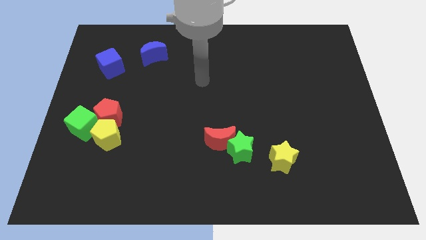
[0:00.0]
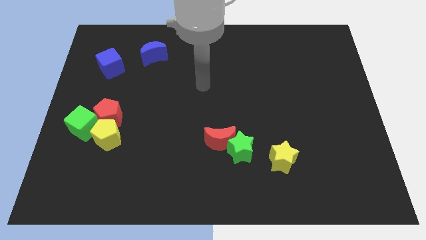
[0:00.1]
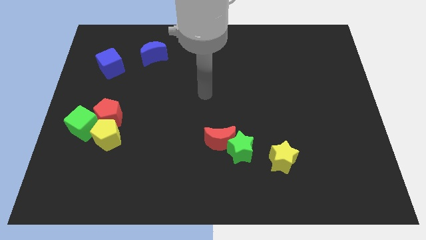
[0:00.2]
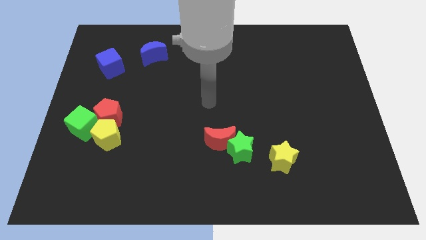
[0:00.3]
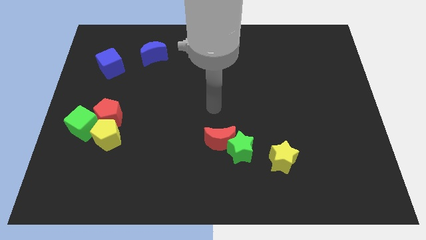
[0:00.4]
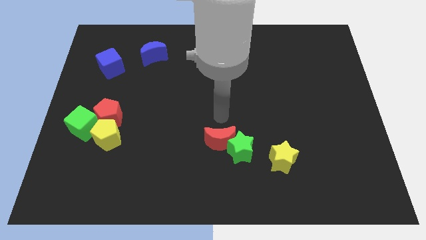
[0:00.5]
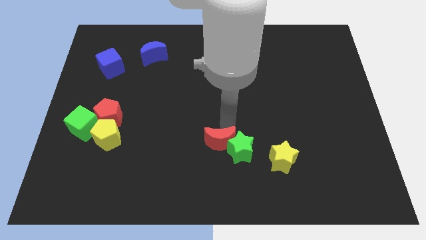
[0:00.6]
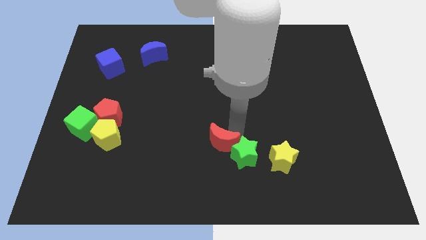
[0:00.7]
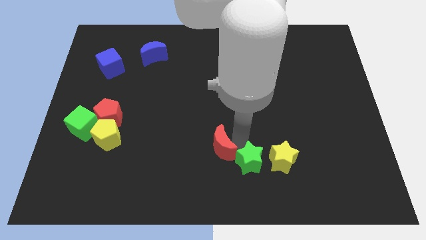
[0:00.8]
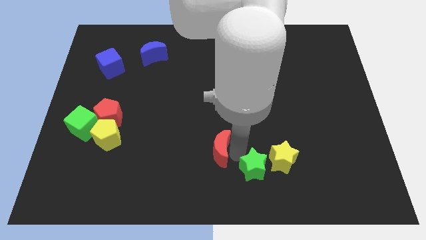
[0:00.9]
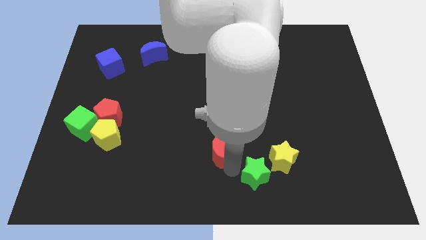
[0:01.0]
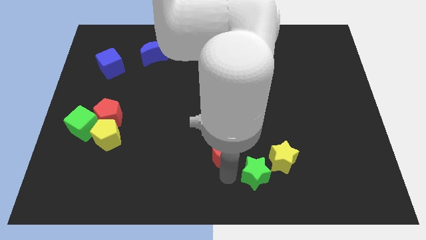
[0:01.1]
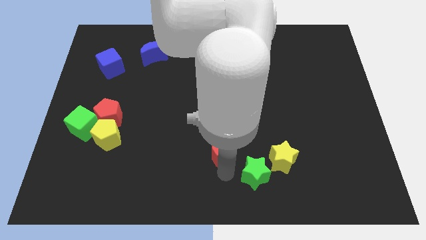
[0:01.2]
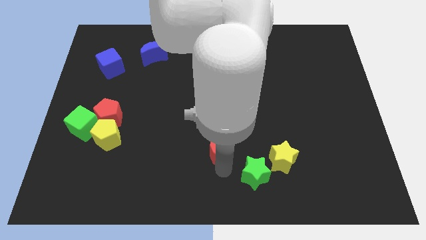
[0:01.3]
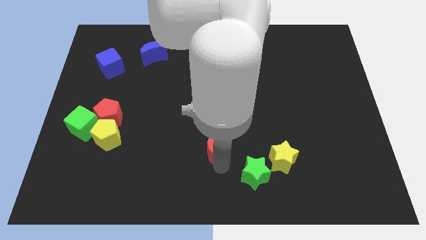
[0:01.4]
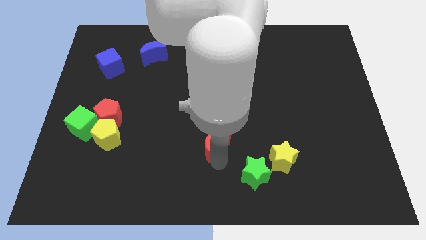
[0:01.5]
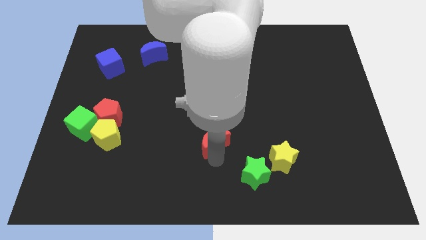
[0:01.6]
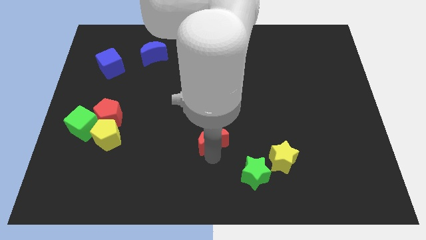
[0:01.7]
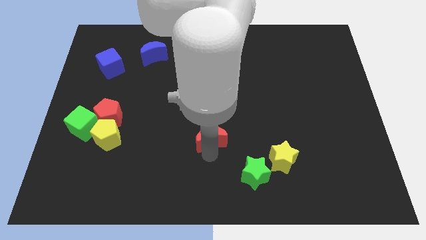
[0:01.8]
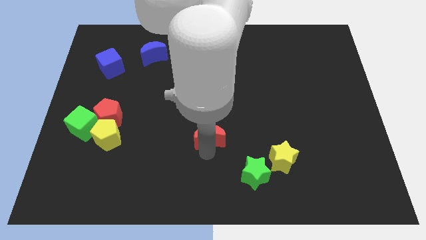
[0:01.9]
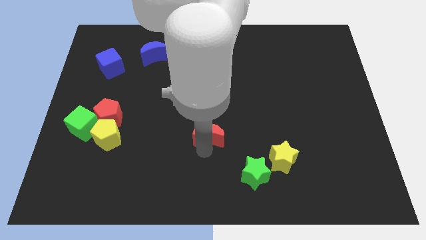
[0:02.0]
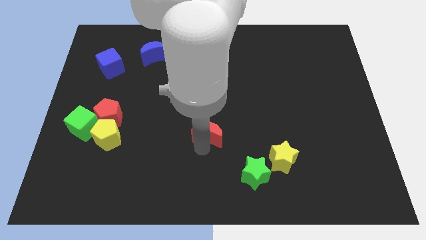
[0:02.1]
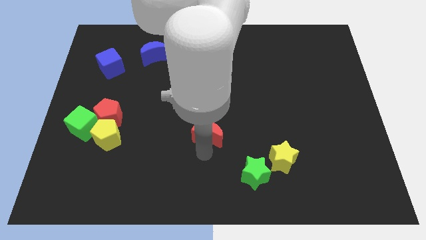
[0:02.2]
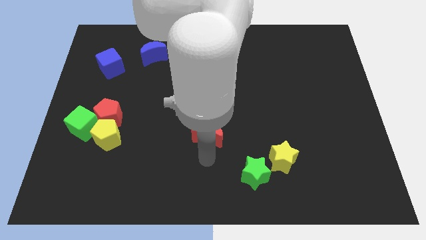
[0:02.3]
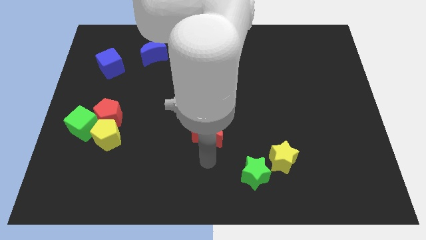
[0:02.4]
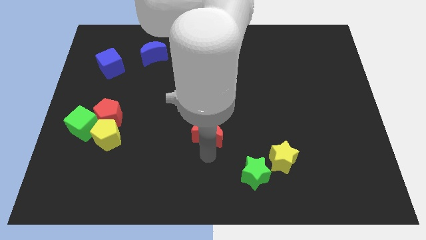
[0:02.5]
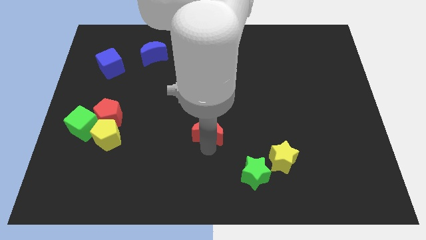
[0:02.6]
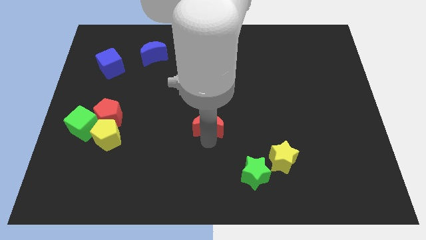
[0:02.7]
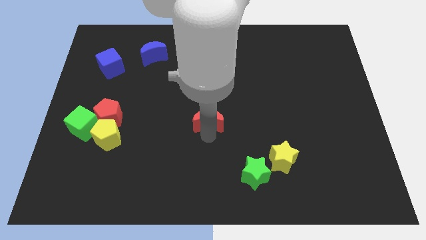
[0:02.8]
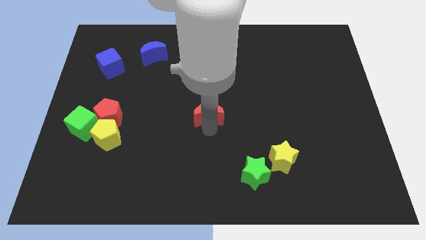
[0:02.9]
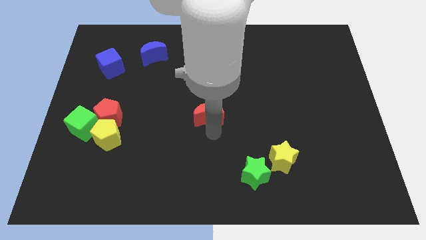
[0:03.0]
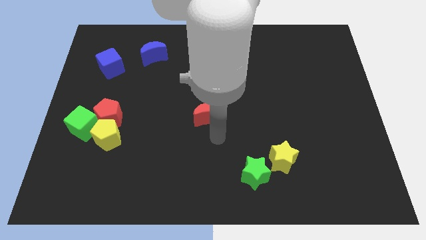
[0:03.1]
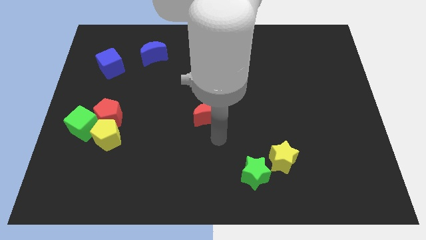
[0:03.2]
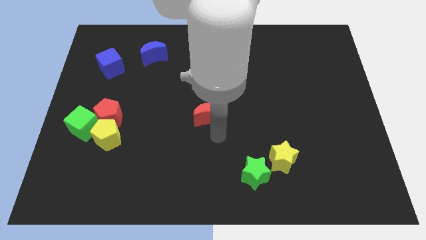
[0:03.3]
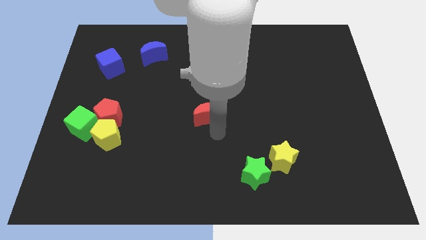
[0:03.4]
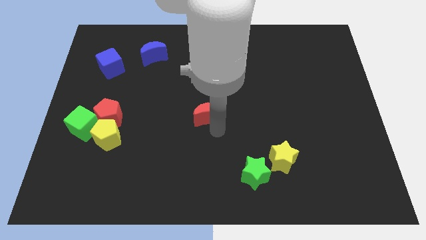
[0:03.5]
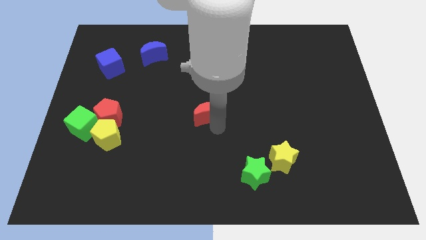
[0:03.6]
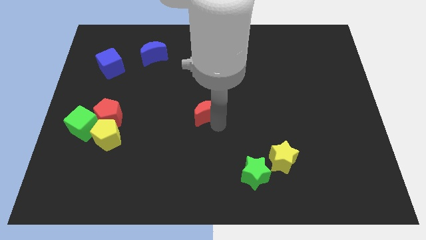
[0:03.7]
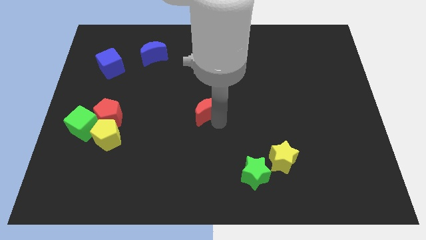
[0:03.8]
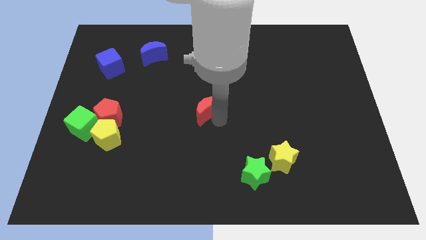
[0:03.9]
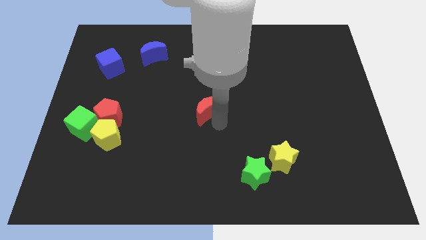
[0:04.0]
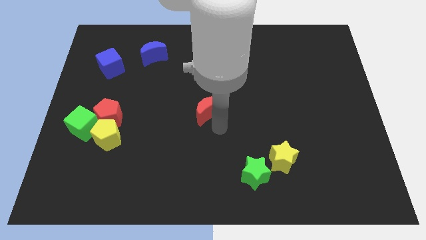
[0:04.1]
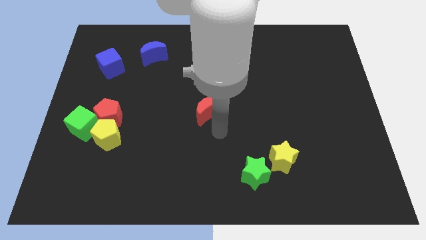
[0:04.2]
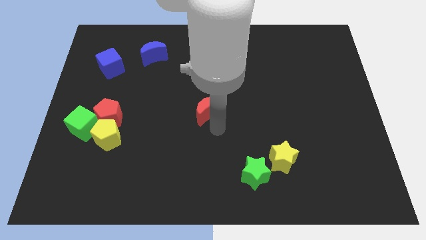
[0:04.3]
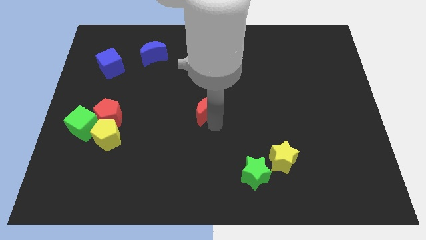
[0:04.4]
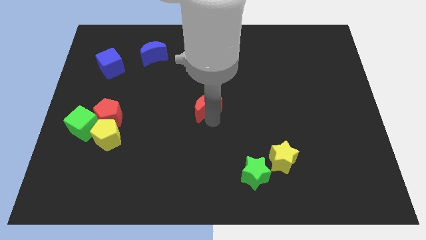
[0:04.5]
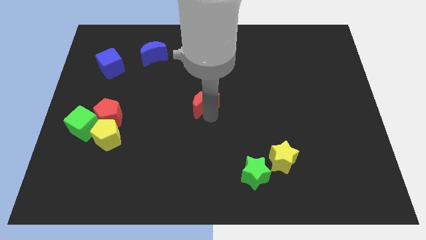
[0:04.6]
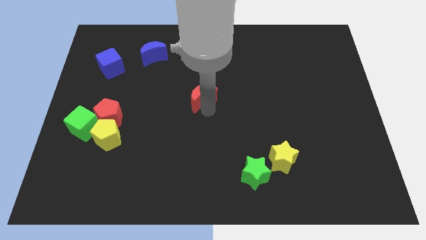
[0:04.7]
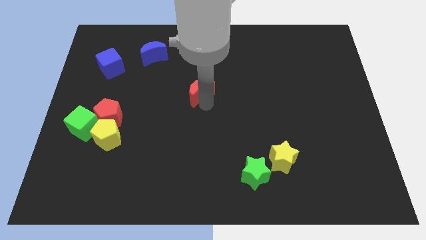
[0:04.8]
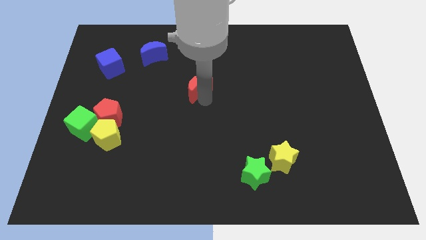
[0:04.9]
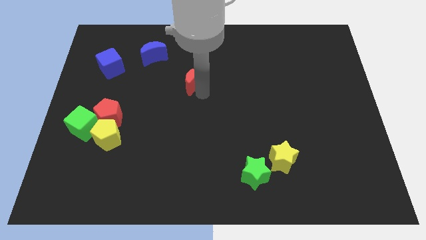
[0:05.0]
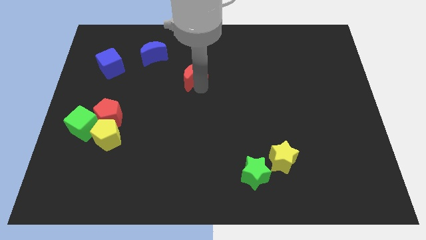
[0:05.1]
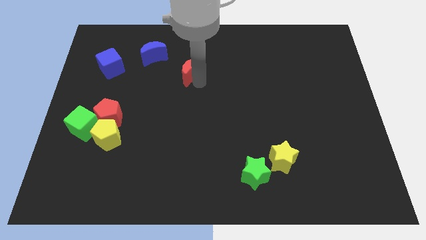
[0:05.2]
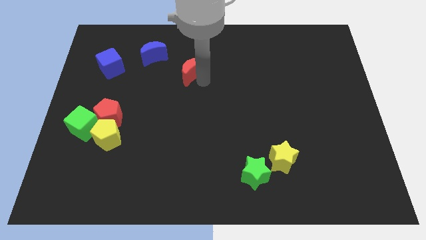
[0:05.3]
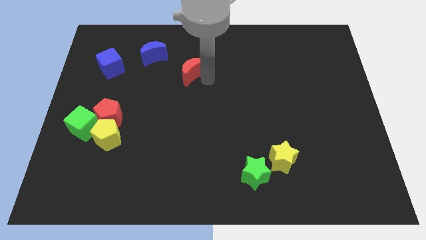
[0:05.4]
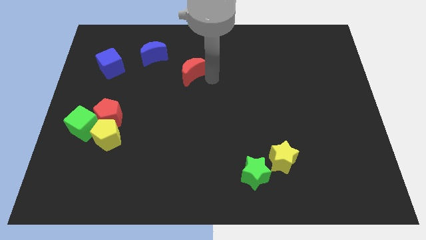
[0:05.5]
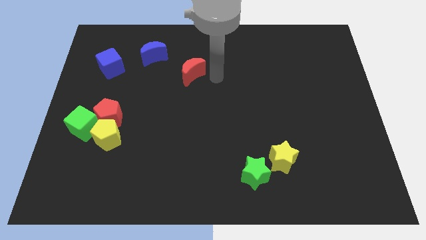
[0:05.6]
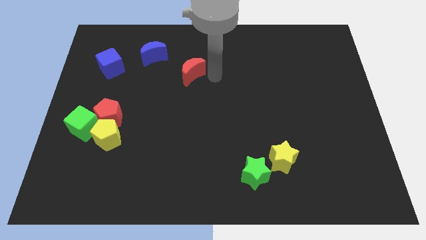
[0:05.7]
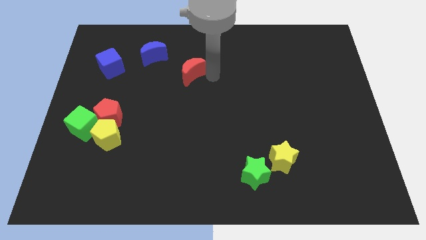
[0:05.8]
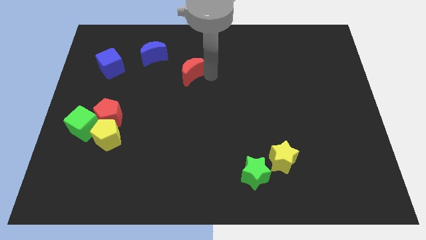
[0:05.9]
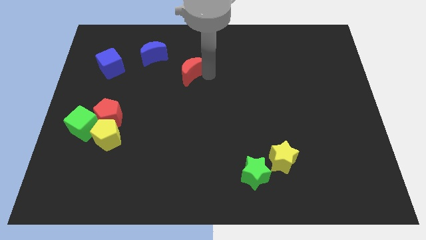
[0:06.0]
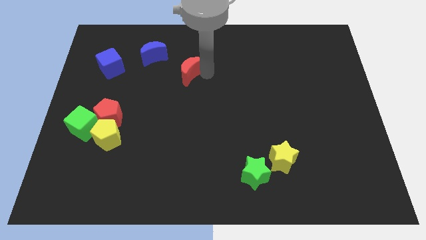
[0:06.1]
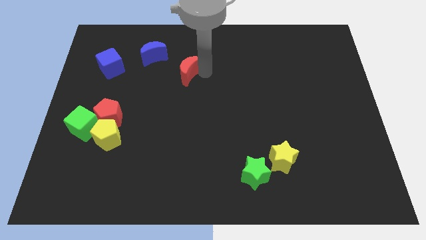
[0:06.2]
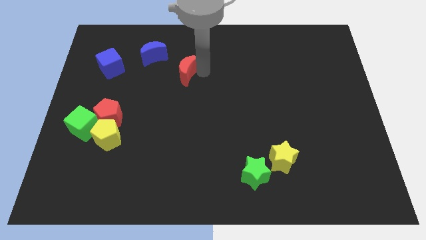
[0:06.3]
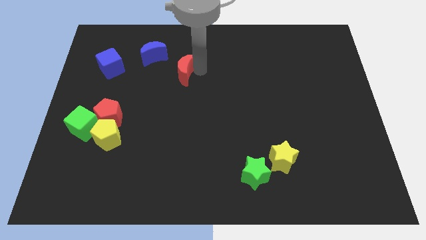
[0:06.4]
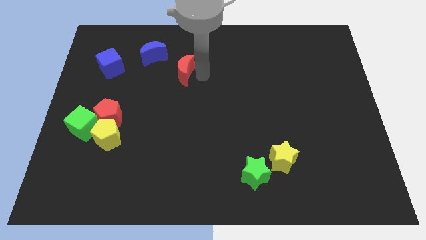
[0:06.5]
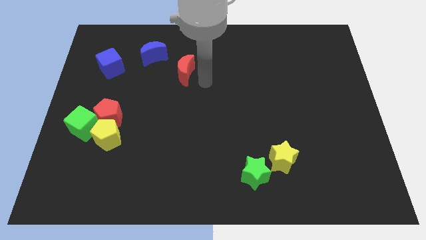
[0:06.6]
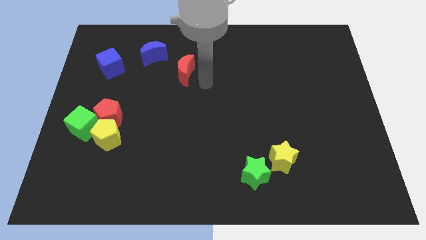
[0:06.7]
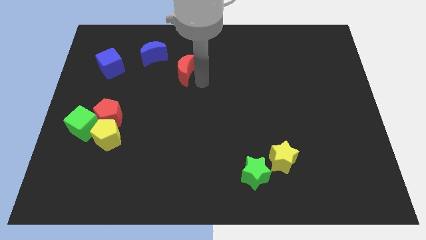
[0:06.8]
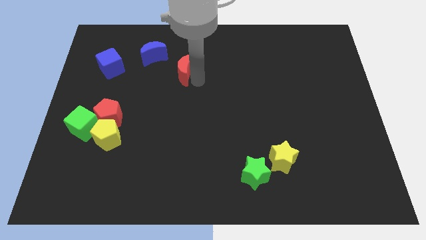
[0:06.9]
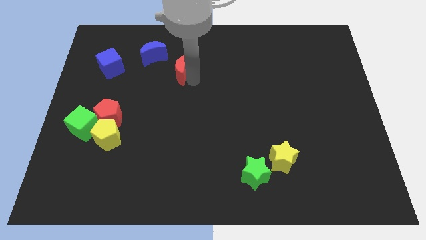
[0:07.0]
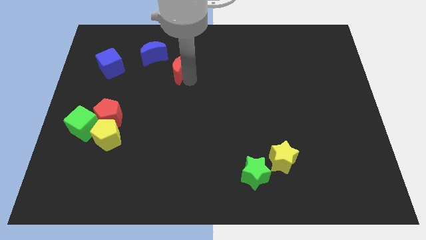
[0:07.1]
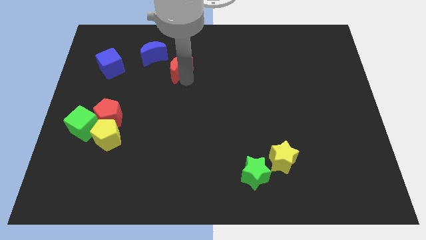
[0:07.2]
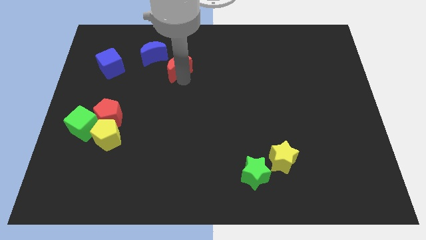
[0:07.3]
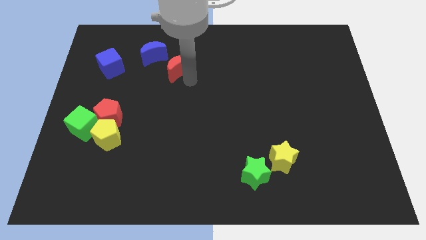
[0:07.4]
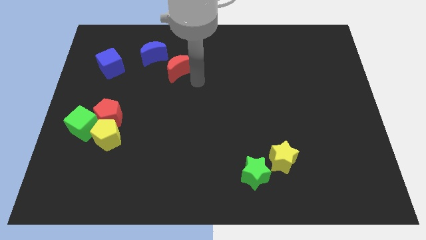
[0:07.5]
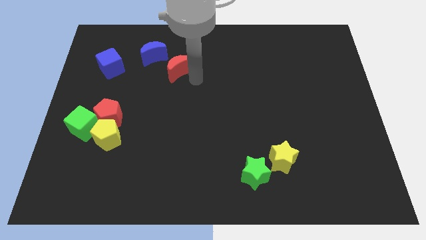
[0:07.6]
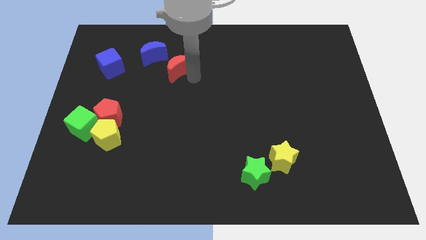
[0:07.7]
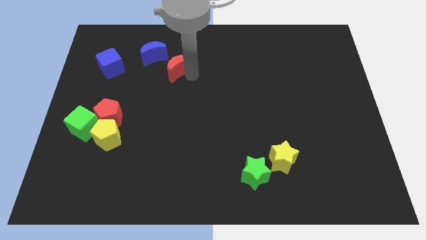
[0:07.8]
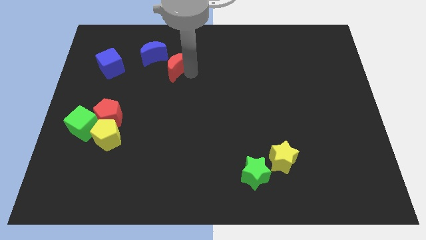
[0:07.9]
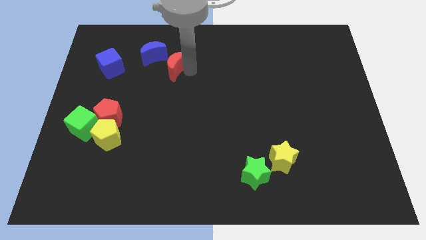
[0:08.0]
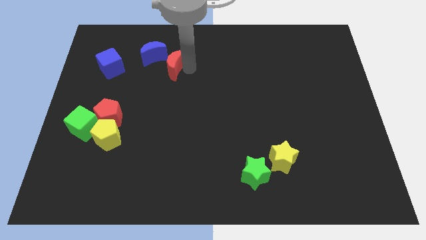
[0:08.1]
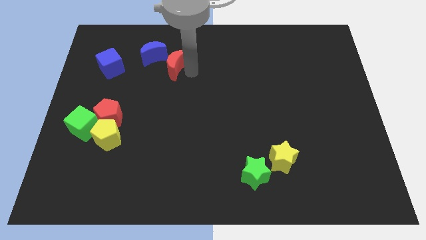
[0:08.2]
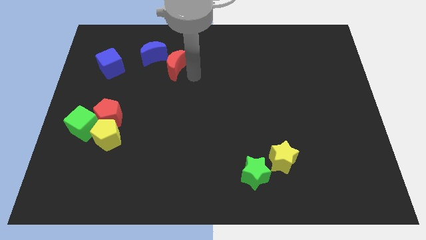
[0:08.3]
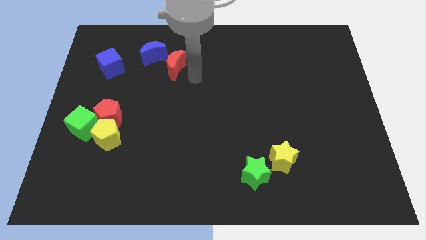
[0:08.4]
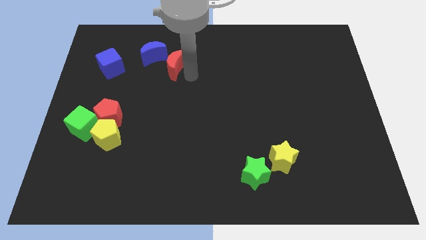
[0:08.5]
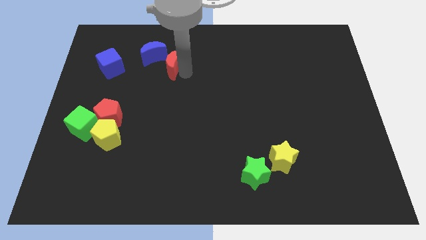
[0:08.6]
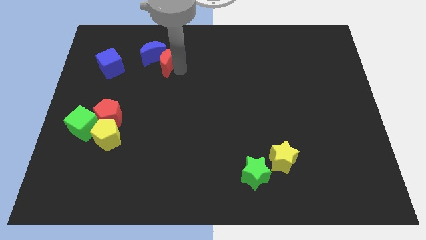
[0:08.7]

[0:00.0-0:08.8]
slide the red moon close to the blue moon
